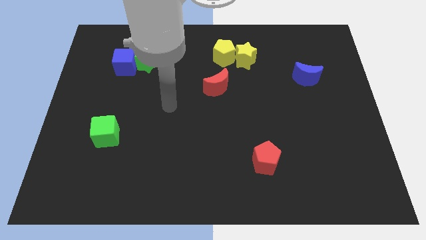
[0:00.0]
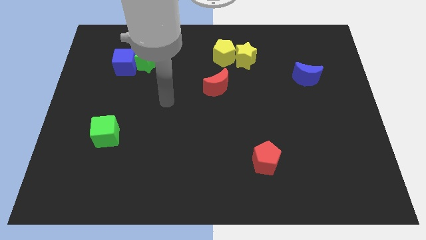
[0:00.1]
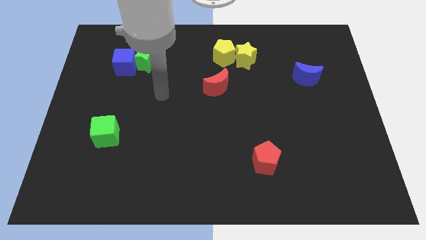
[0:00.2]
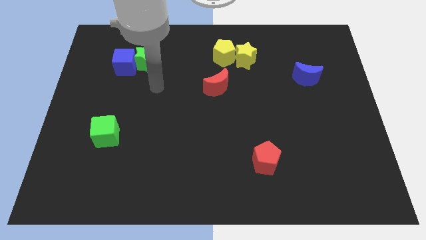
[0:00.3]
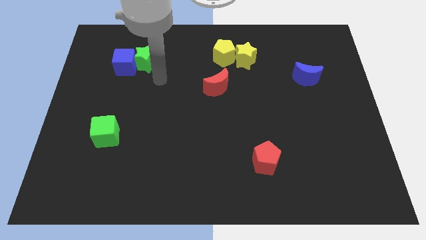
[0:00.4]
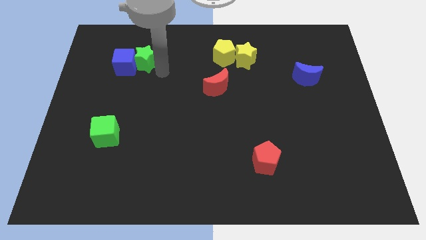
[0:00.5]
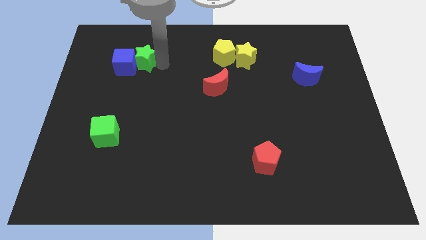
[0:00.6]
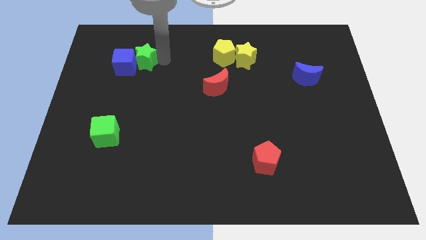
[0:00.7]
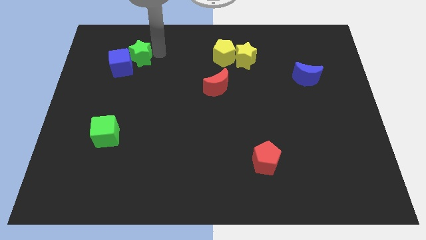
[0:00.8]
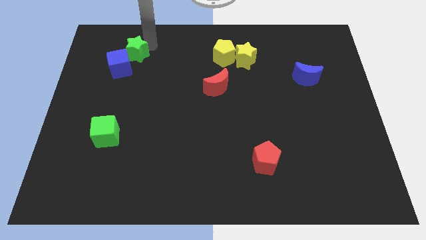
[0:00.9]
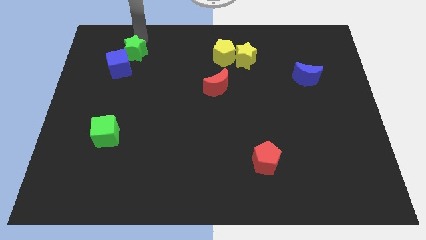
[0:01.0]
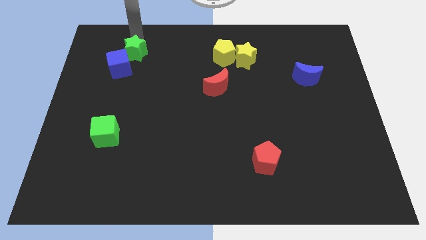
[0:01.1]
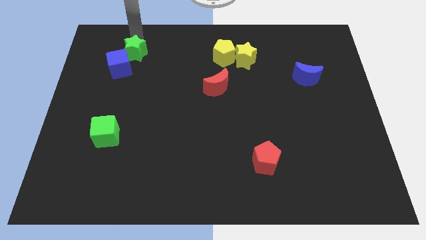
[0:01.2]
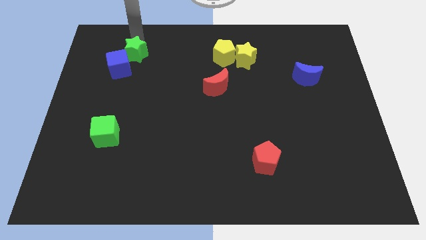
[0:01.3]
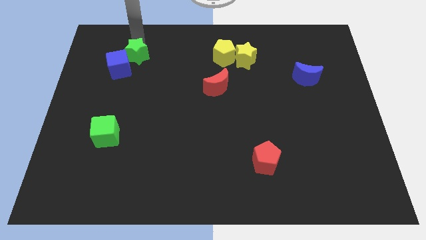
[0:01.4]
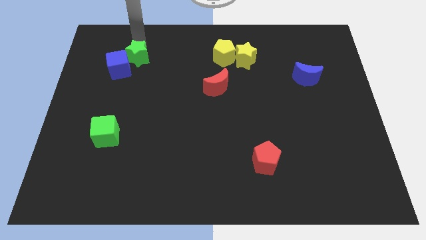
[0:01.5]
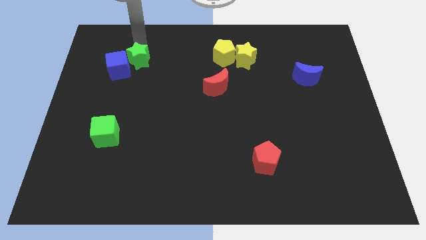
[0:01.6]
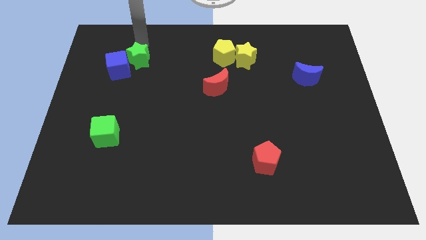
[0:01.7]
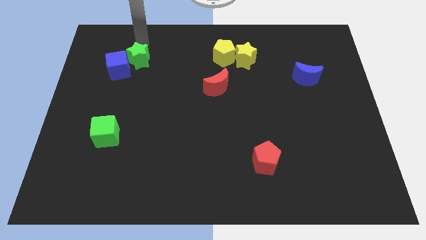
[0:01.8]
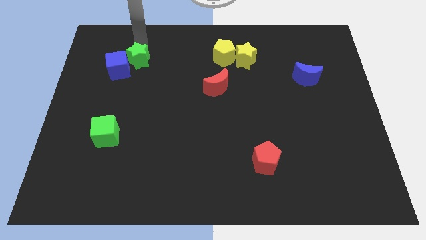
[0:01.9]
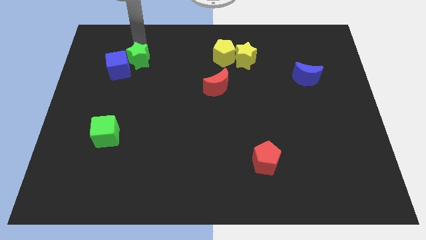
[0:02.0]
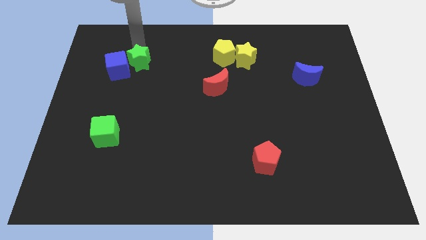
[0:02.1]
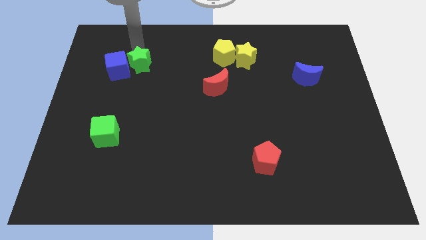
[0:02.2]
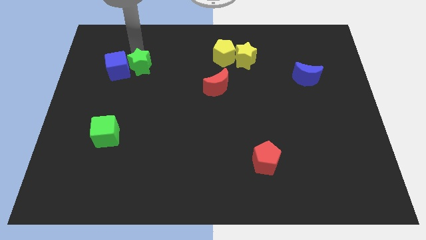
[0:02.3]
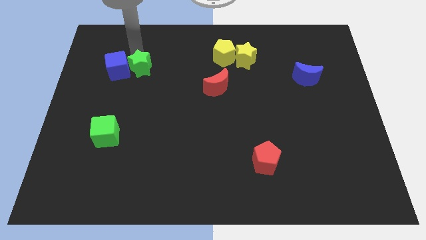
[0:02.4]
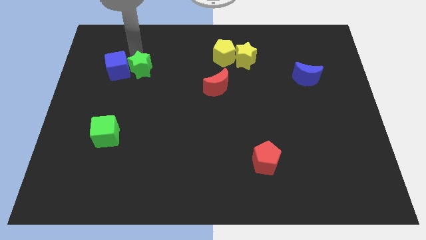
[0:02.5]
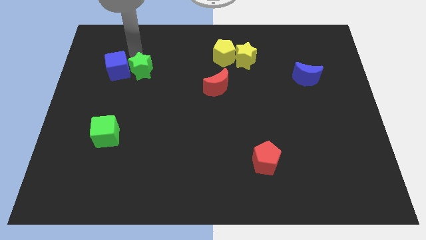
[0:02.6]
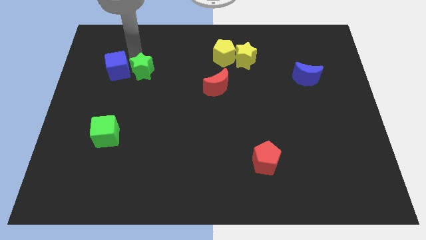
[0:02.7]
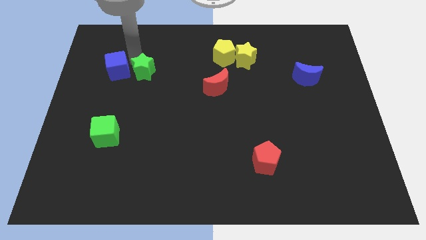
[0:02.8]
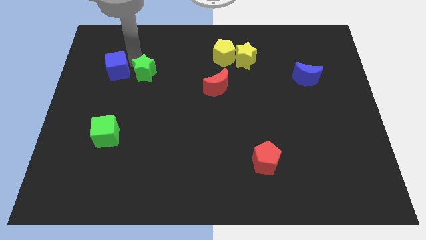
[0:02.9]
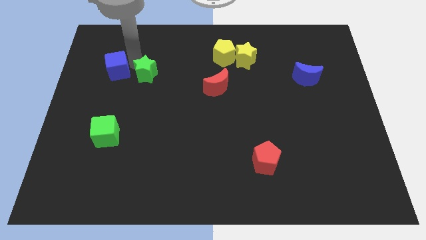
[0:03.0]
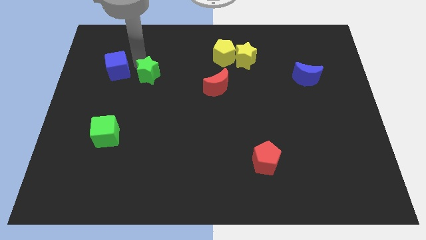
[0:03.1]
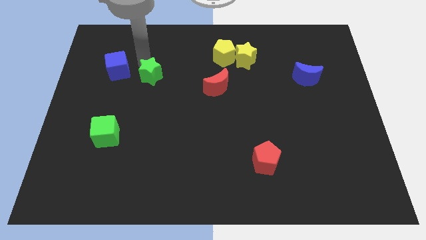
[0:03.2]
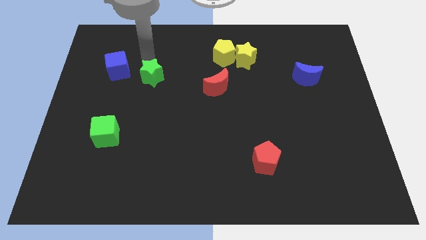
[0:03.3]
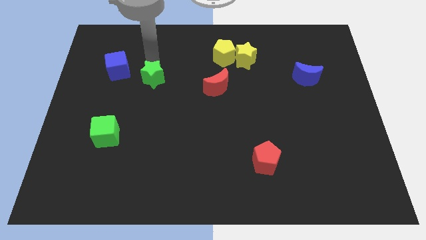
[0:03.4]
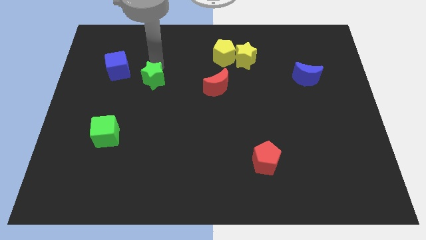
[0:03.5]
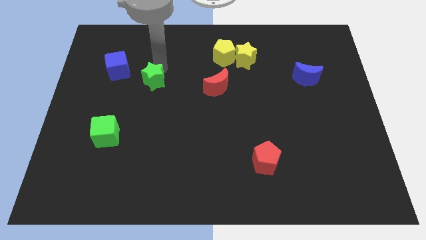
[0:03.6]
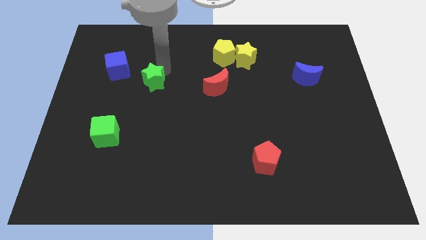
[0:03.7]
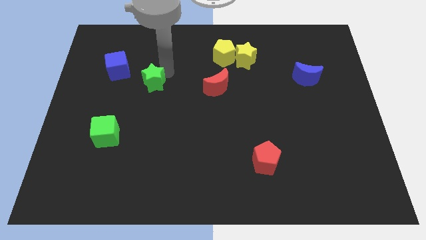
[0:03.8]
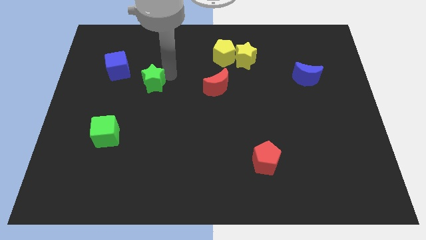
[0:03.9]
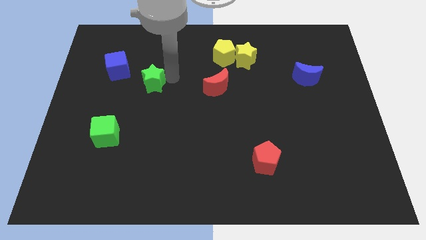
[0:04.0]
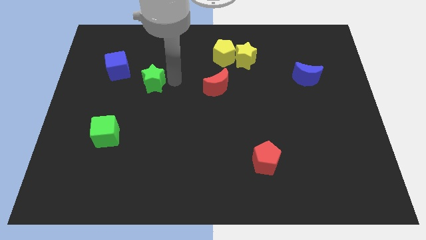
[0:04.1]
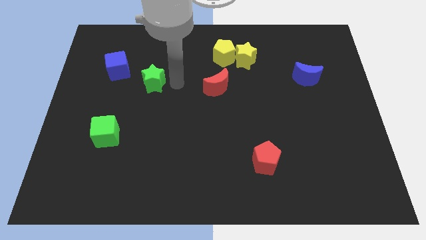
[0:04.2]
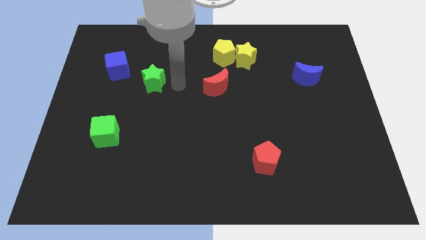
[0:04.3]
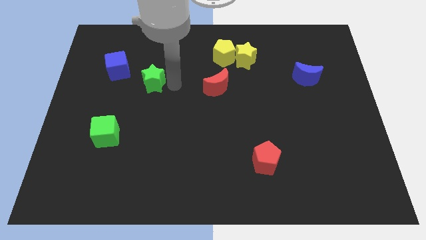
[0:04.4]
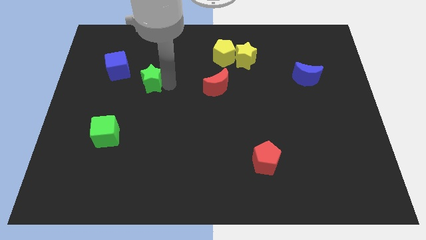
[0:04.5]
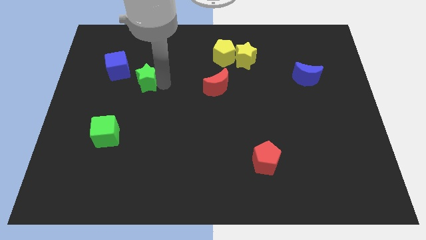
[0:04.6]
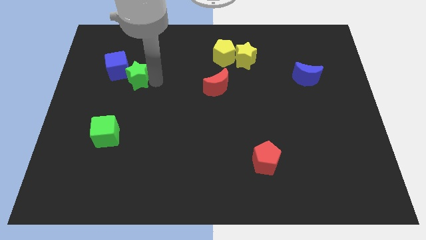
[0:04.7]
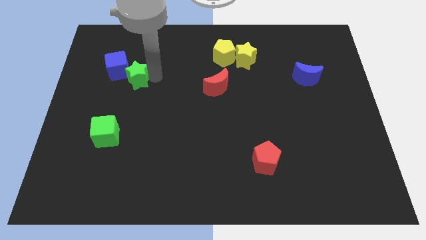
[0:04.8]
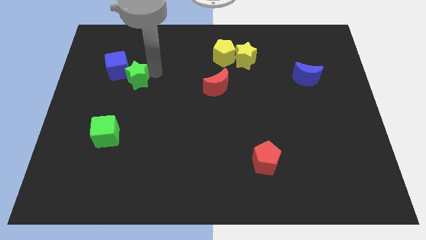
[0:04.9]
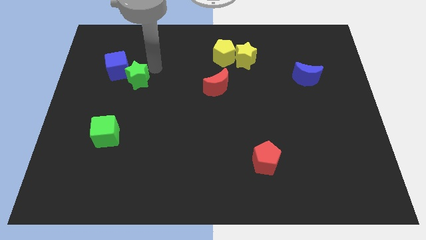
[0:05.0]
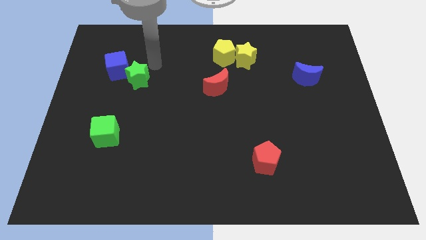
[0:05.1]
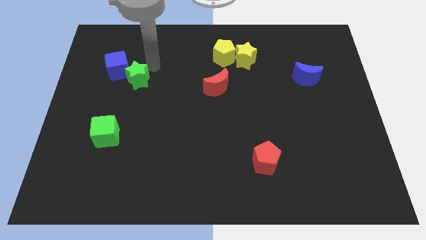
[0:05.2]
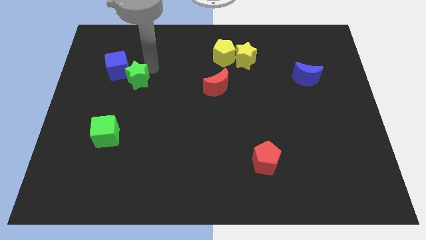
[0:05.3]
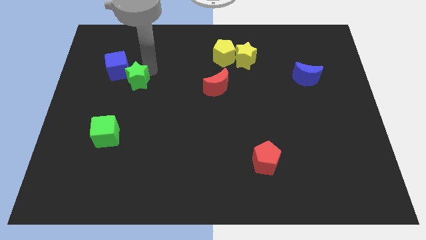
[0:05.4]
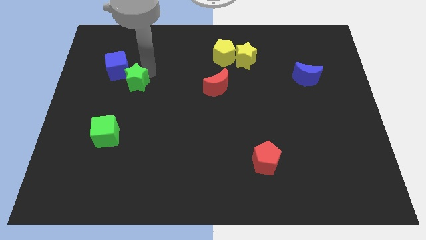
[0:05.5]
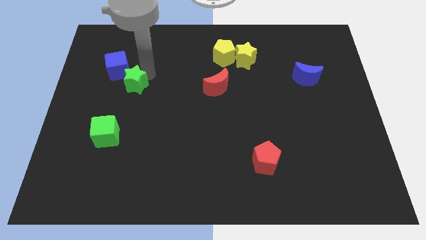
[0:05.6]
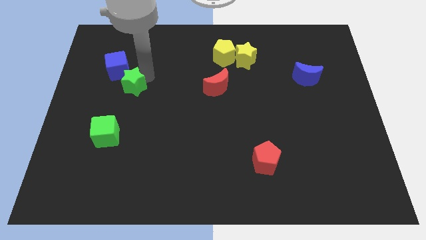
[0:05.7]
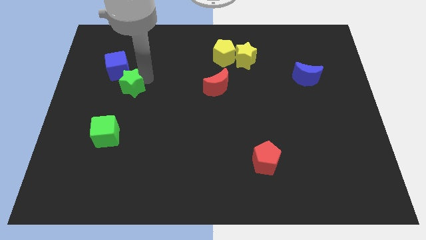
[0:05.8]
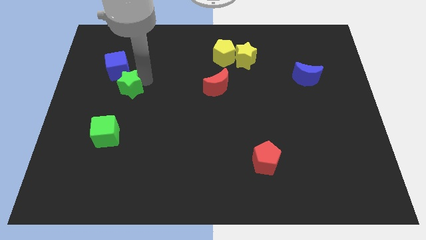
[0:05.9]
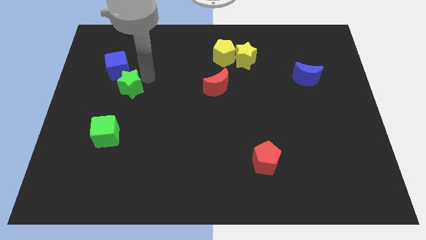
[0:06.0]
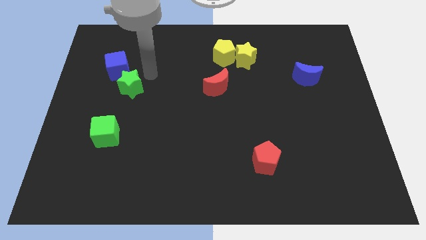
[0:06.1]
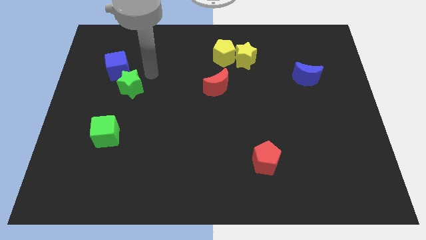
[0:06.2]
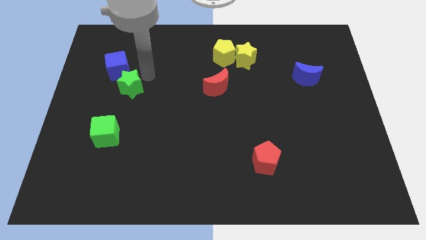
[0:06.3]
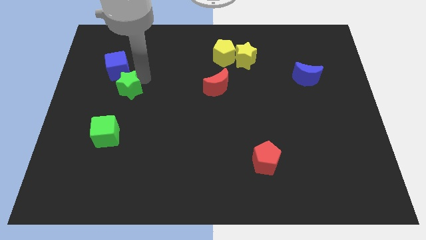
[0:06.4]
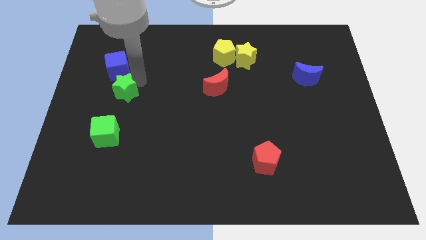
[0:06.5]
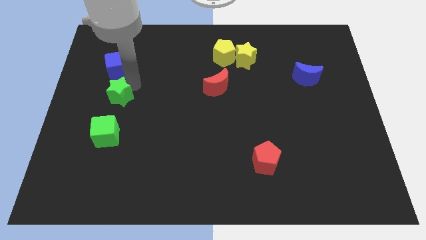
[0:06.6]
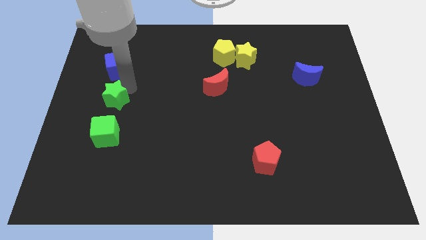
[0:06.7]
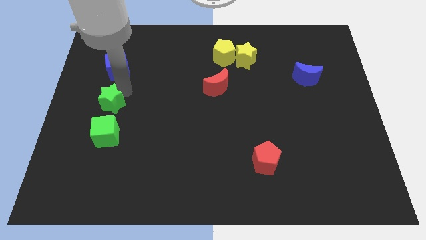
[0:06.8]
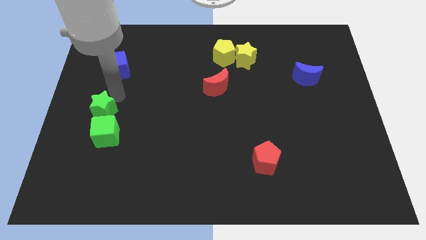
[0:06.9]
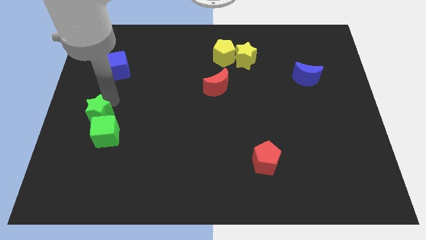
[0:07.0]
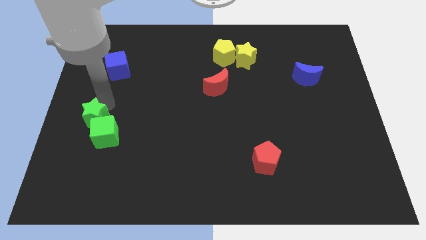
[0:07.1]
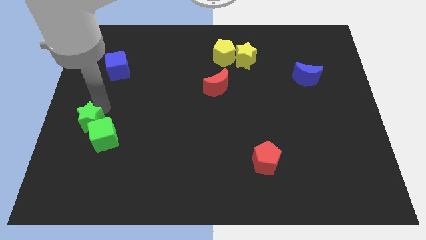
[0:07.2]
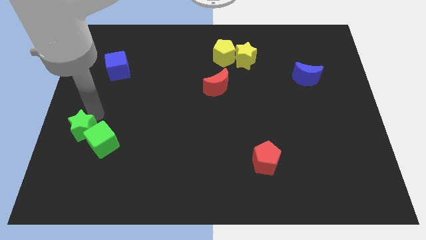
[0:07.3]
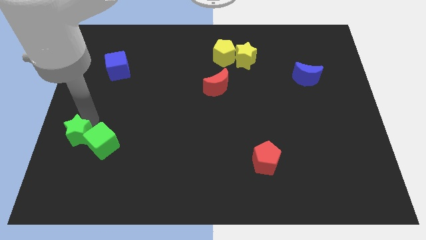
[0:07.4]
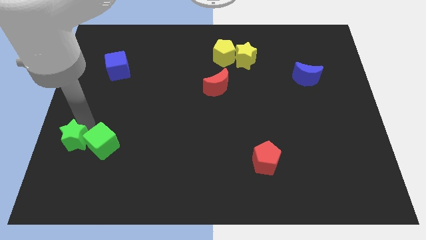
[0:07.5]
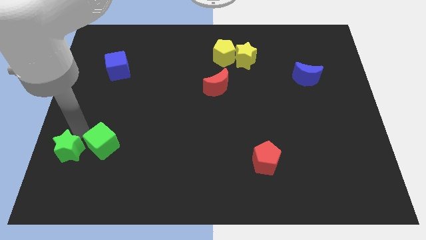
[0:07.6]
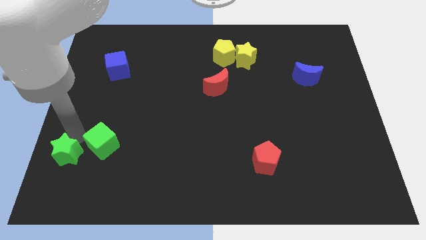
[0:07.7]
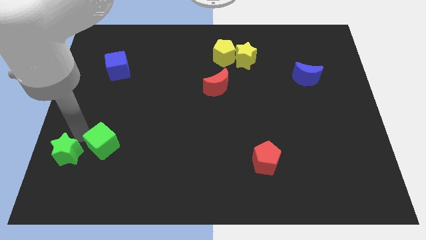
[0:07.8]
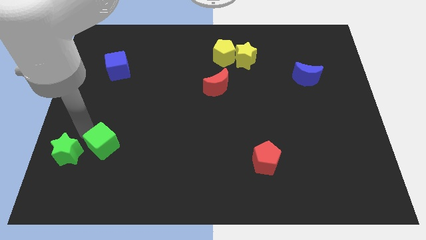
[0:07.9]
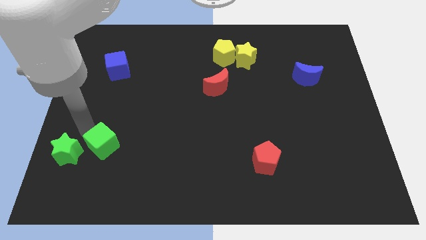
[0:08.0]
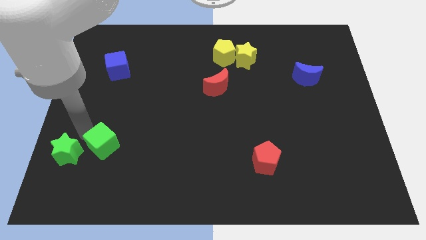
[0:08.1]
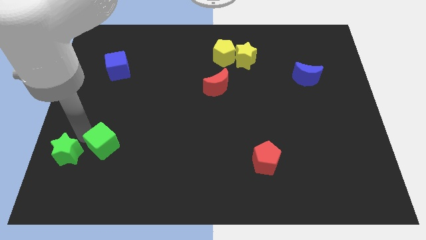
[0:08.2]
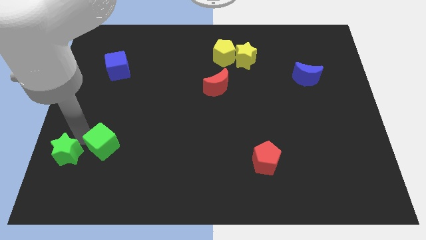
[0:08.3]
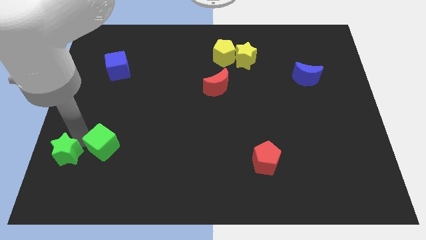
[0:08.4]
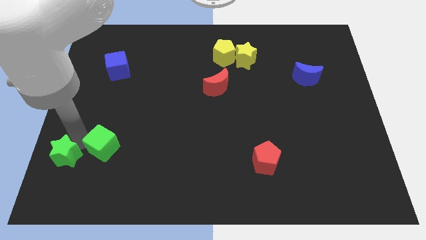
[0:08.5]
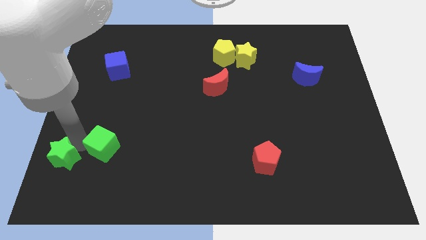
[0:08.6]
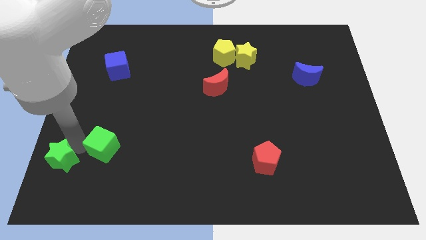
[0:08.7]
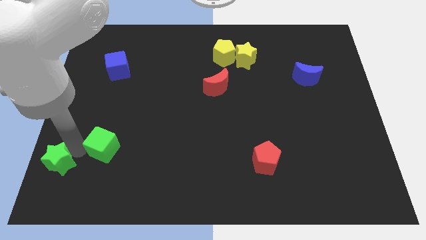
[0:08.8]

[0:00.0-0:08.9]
put the green star to the bottom left
